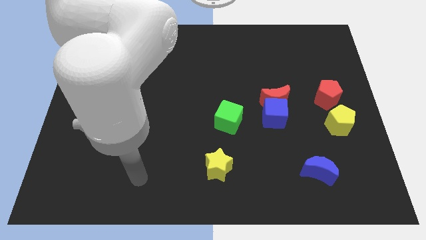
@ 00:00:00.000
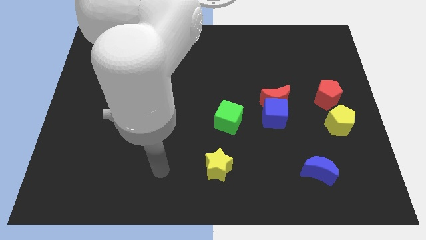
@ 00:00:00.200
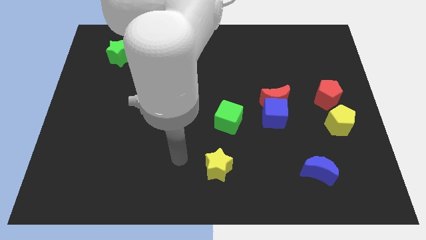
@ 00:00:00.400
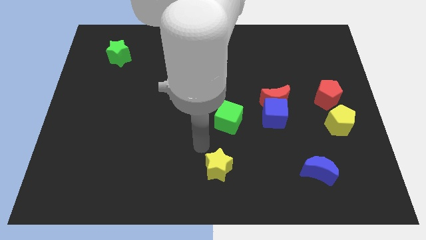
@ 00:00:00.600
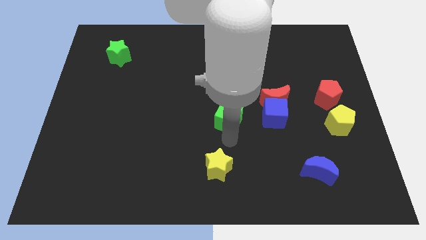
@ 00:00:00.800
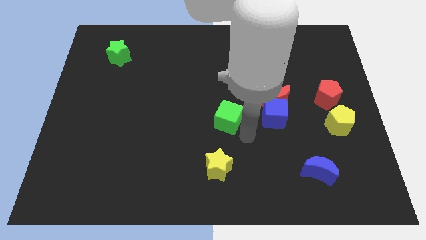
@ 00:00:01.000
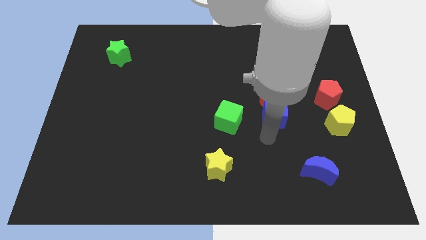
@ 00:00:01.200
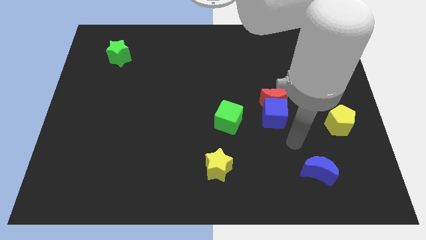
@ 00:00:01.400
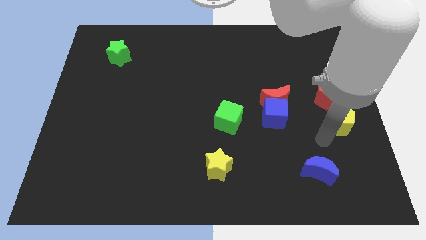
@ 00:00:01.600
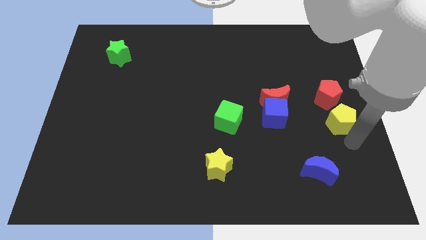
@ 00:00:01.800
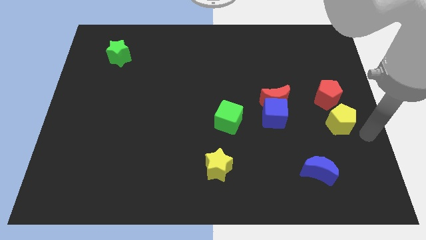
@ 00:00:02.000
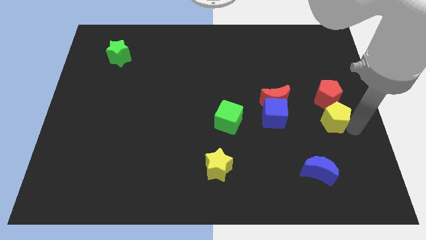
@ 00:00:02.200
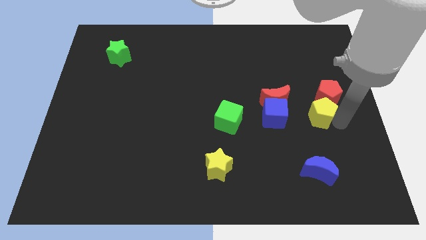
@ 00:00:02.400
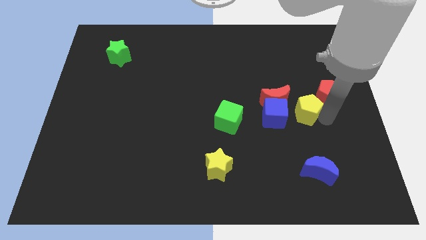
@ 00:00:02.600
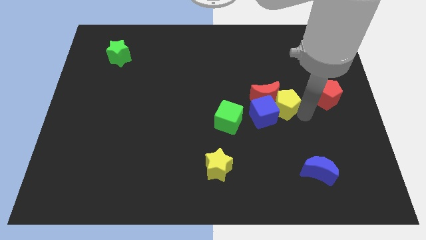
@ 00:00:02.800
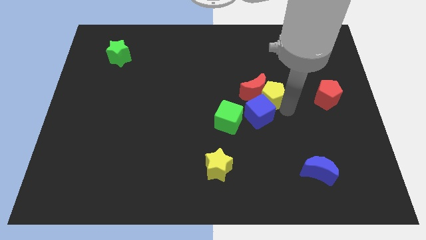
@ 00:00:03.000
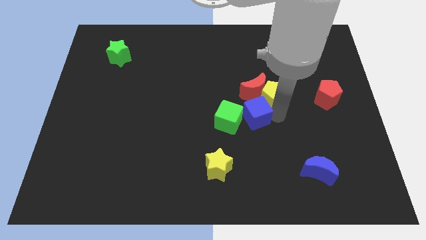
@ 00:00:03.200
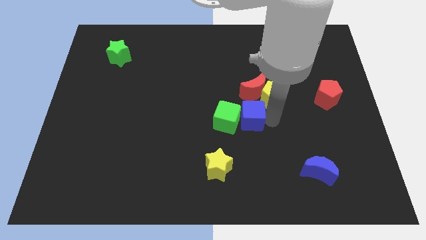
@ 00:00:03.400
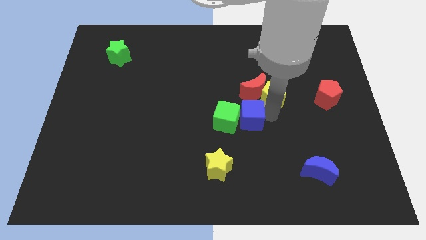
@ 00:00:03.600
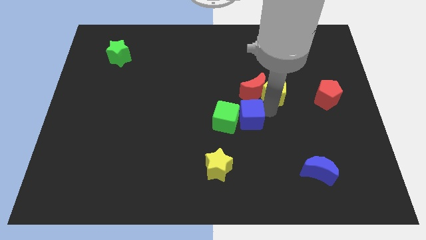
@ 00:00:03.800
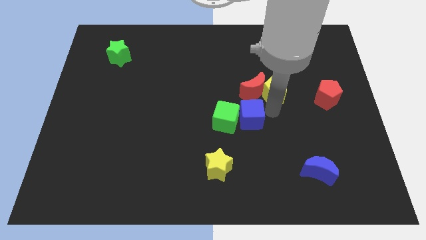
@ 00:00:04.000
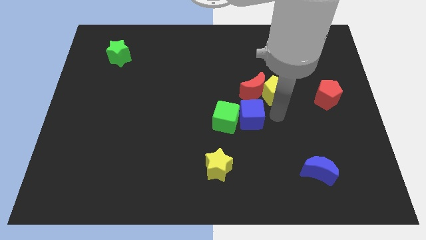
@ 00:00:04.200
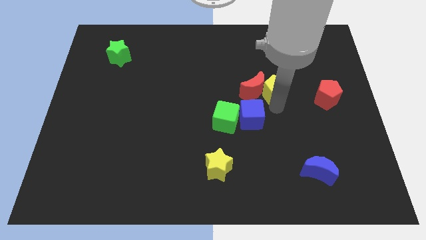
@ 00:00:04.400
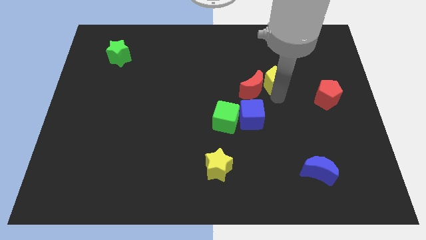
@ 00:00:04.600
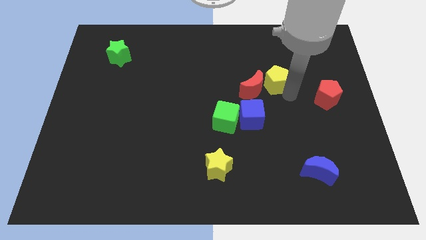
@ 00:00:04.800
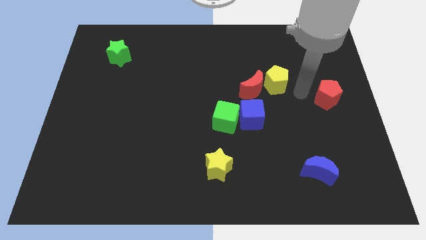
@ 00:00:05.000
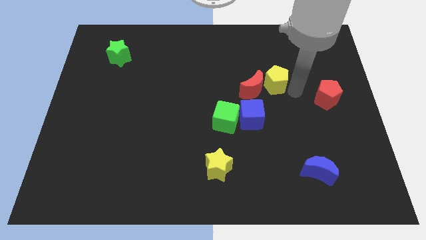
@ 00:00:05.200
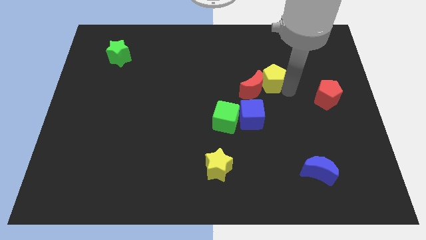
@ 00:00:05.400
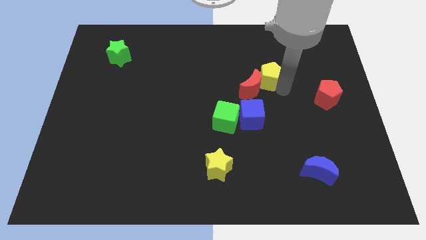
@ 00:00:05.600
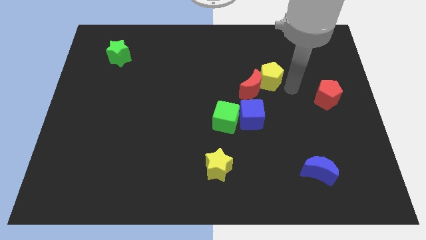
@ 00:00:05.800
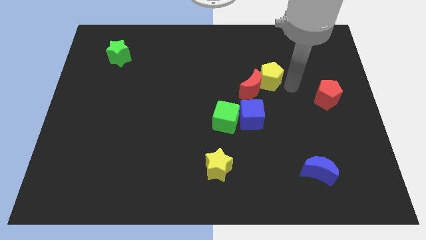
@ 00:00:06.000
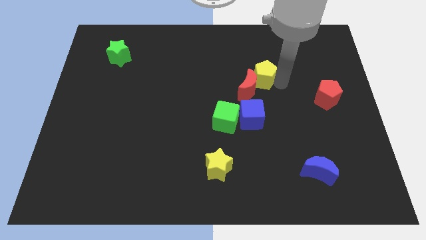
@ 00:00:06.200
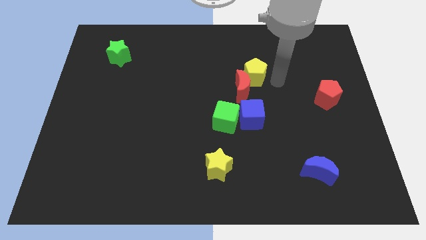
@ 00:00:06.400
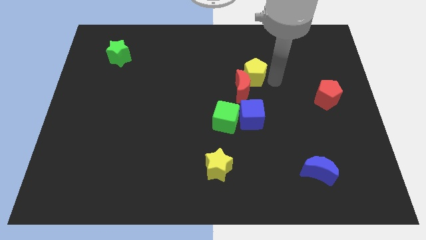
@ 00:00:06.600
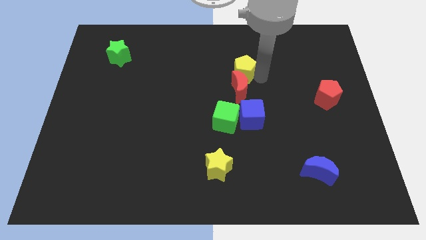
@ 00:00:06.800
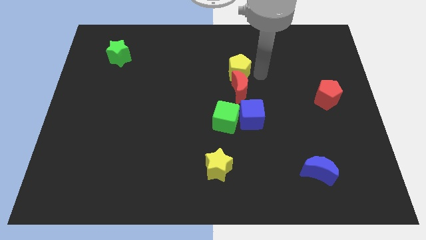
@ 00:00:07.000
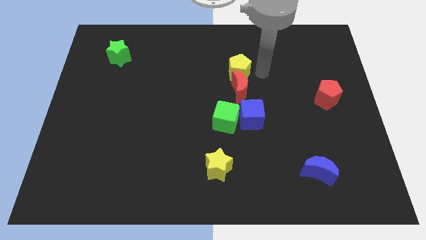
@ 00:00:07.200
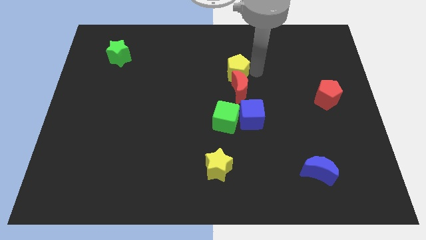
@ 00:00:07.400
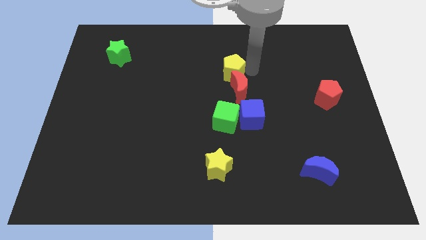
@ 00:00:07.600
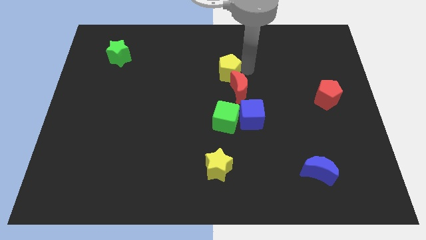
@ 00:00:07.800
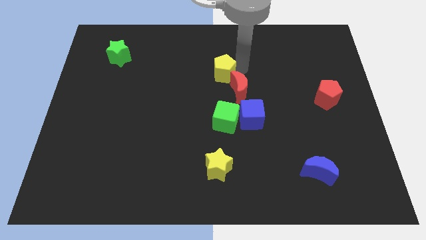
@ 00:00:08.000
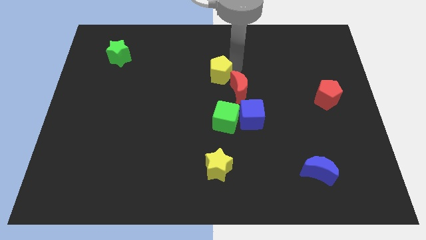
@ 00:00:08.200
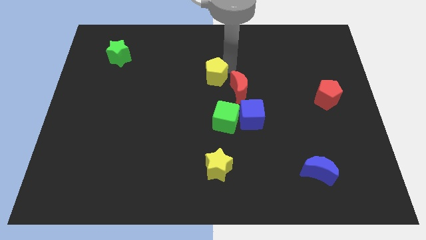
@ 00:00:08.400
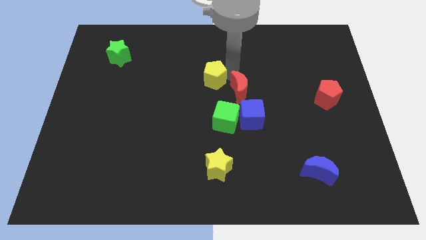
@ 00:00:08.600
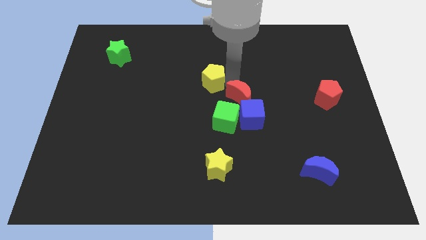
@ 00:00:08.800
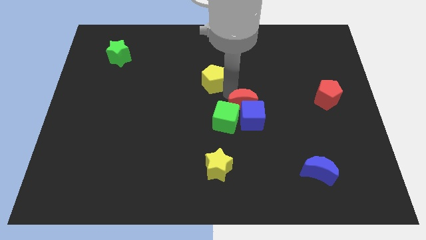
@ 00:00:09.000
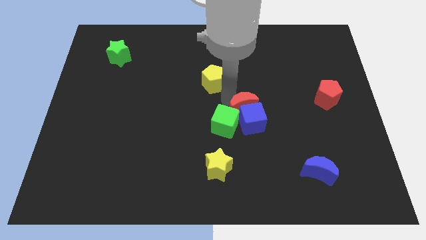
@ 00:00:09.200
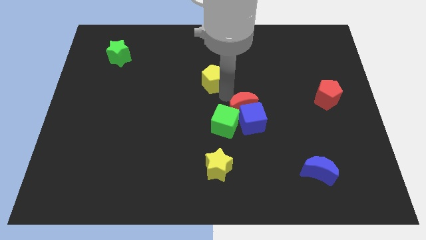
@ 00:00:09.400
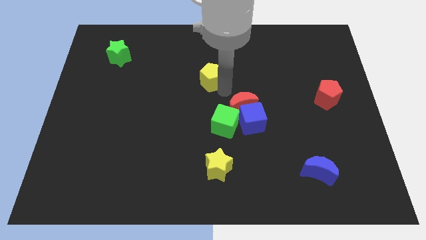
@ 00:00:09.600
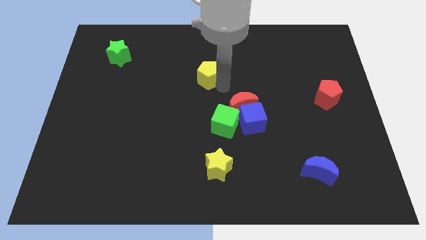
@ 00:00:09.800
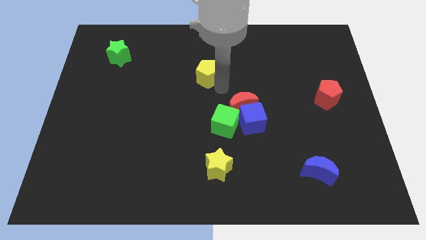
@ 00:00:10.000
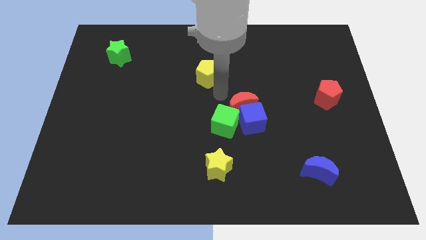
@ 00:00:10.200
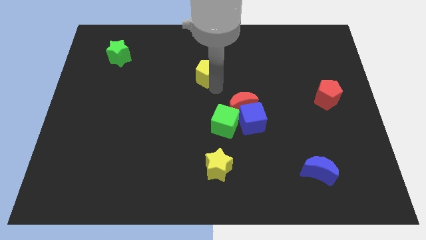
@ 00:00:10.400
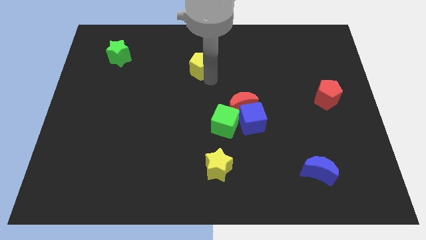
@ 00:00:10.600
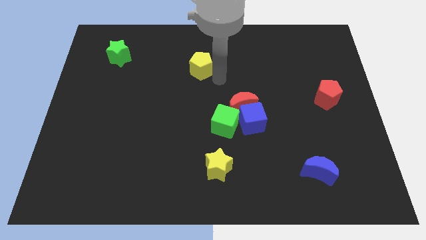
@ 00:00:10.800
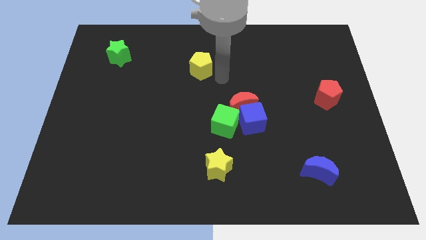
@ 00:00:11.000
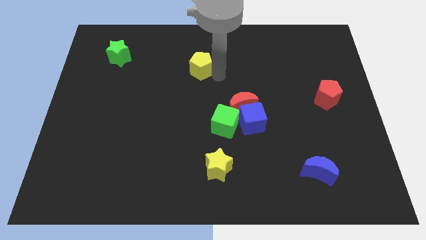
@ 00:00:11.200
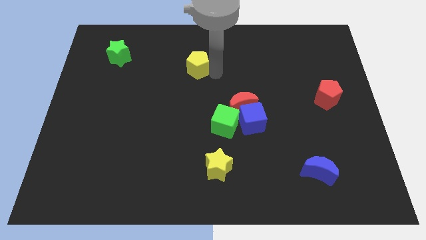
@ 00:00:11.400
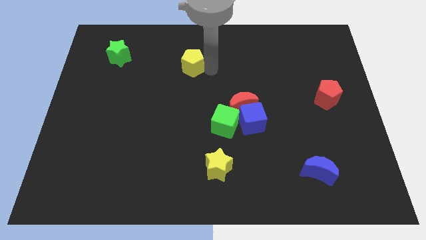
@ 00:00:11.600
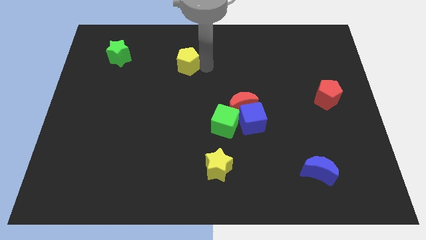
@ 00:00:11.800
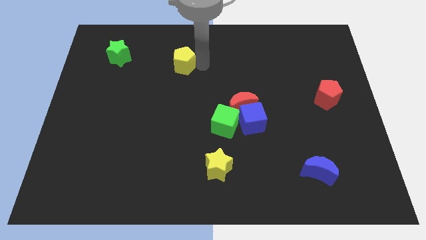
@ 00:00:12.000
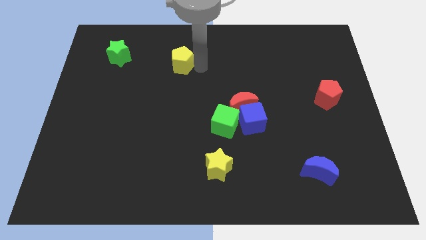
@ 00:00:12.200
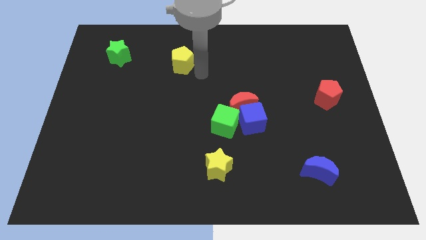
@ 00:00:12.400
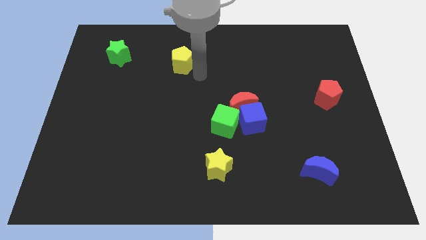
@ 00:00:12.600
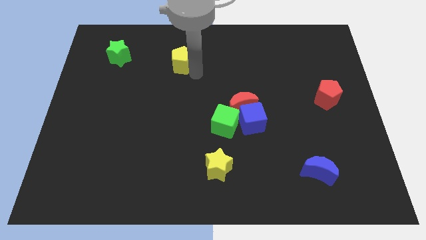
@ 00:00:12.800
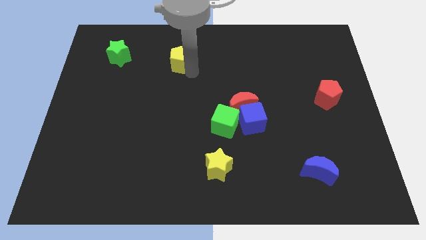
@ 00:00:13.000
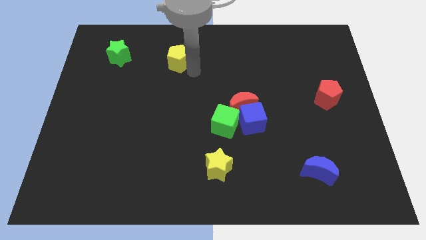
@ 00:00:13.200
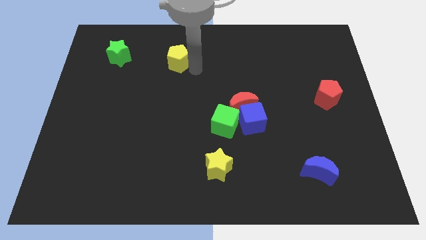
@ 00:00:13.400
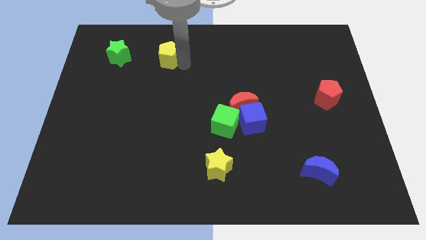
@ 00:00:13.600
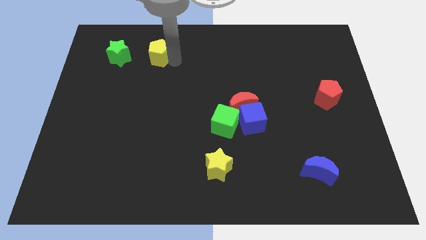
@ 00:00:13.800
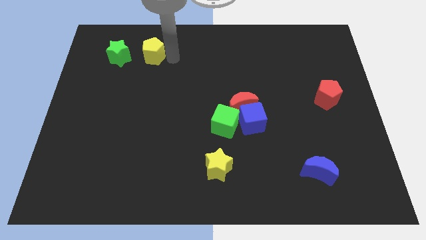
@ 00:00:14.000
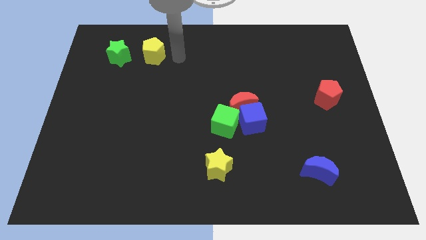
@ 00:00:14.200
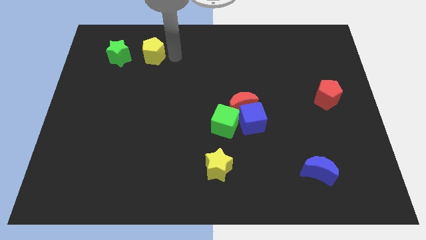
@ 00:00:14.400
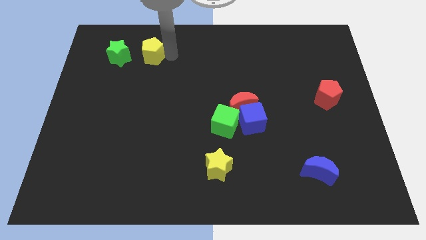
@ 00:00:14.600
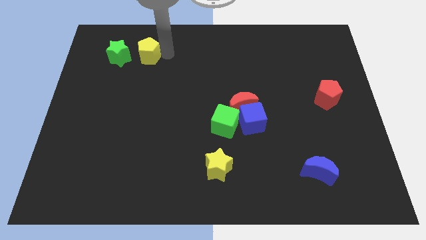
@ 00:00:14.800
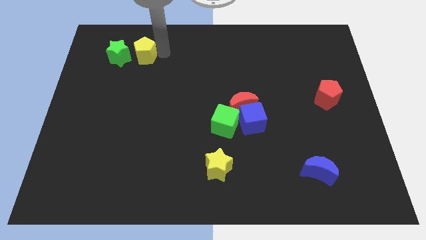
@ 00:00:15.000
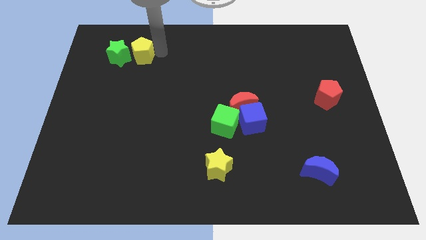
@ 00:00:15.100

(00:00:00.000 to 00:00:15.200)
move the yellow pentagon towards the green star
